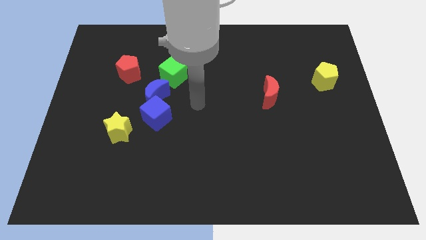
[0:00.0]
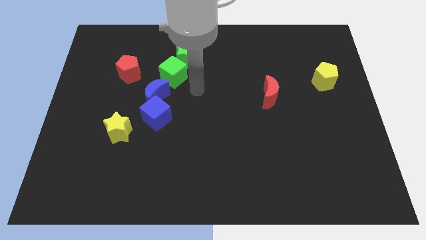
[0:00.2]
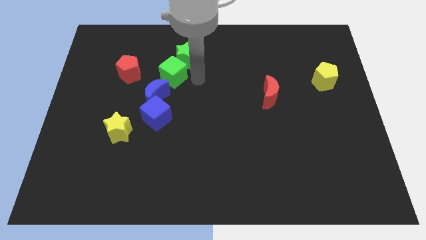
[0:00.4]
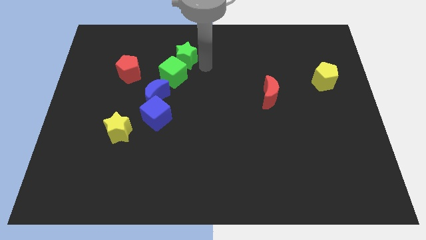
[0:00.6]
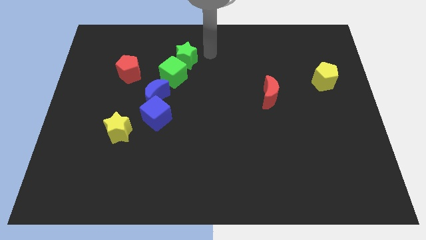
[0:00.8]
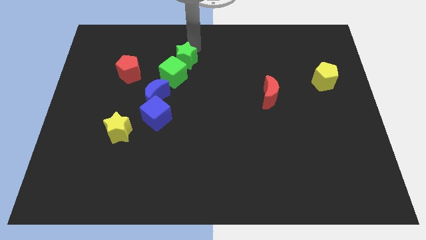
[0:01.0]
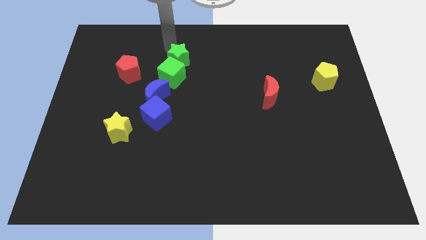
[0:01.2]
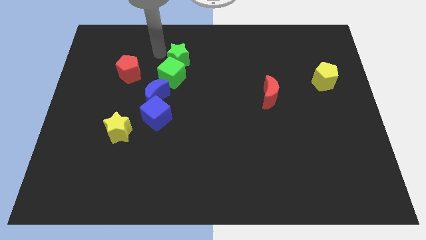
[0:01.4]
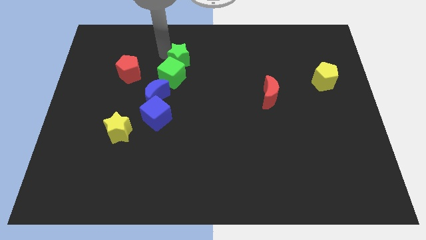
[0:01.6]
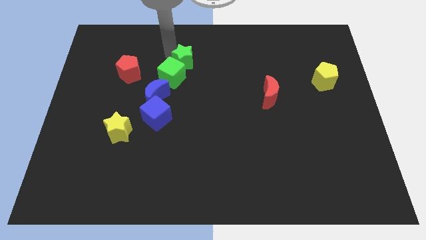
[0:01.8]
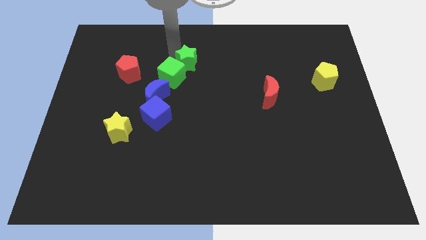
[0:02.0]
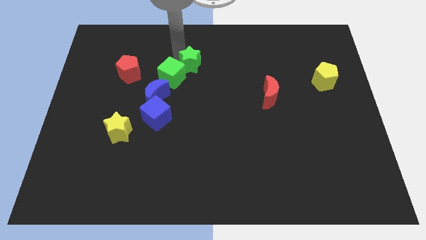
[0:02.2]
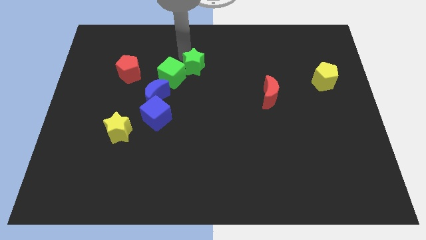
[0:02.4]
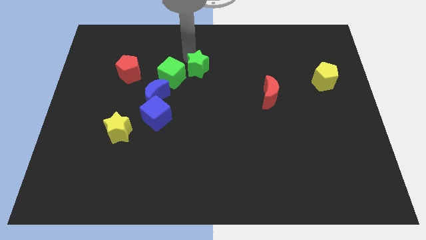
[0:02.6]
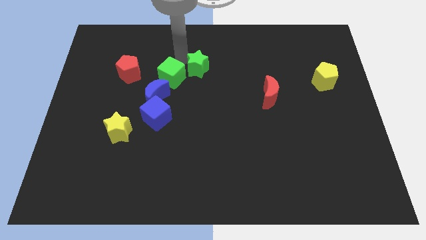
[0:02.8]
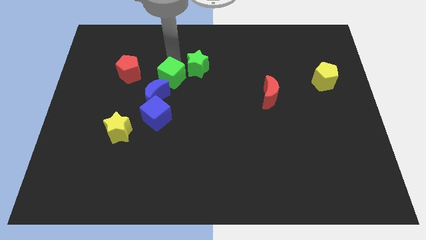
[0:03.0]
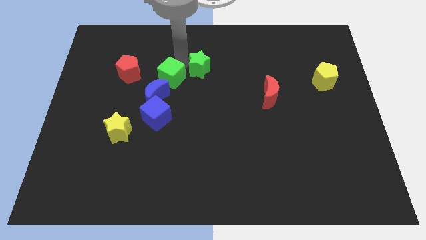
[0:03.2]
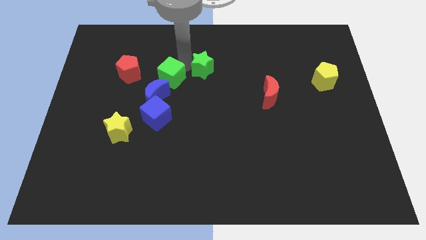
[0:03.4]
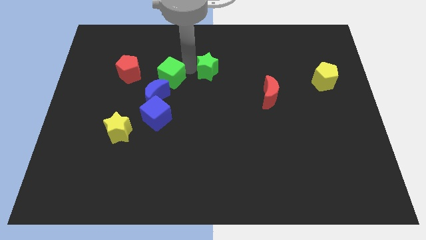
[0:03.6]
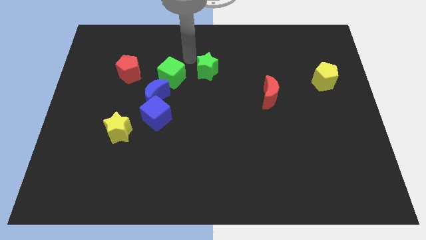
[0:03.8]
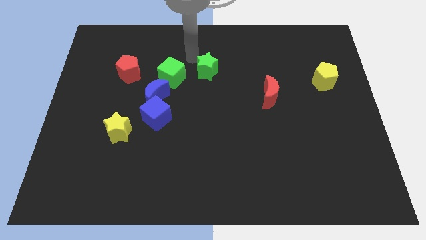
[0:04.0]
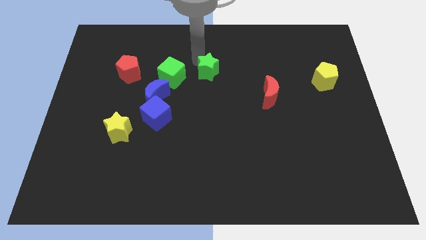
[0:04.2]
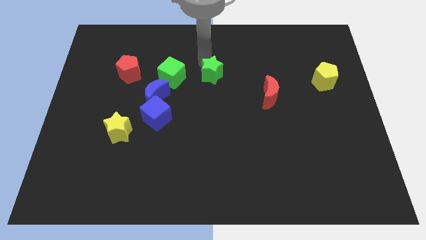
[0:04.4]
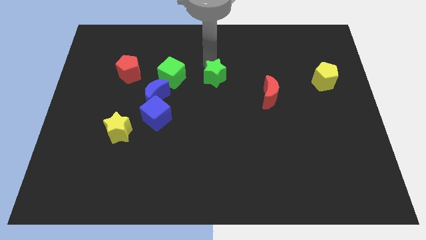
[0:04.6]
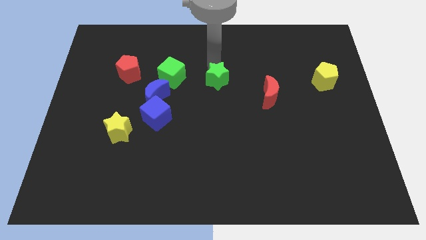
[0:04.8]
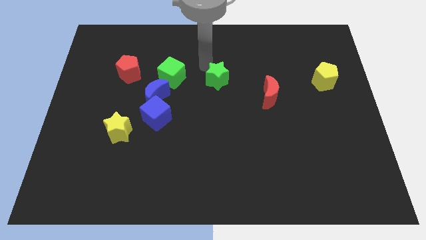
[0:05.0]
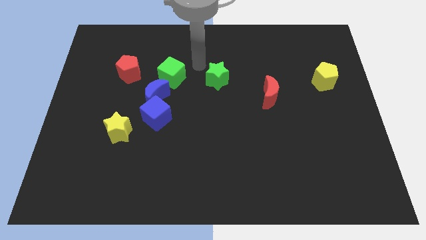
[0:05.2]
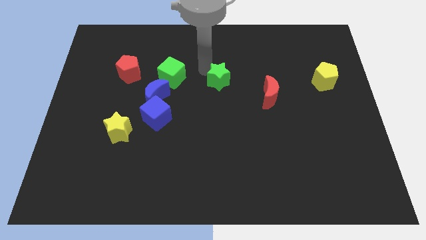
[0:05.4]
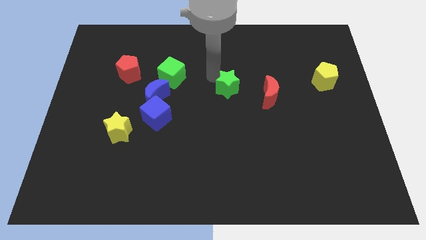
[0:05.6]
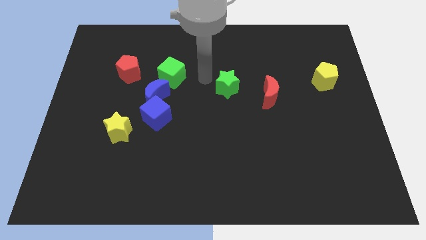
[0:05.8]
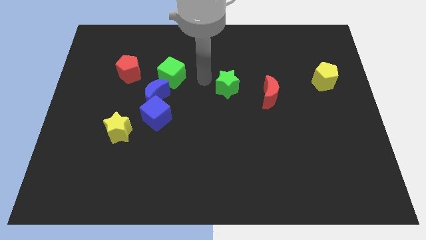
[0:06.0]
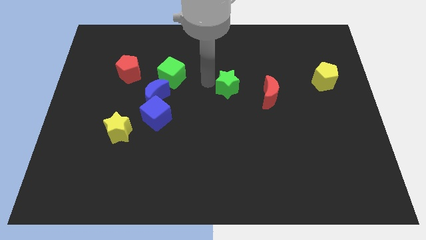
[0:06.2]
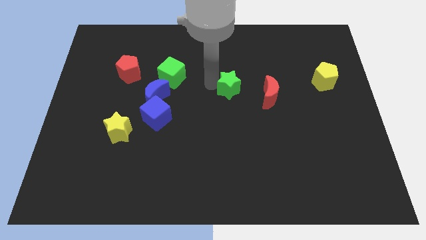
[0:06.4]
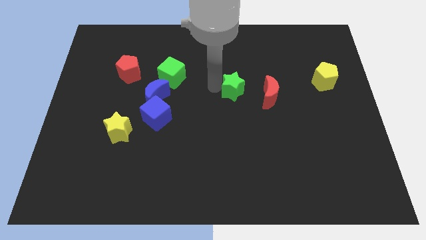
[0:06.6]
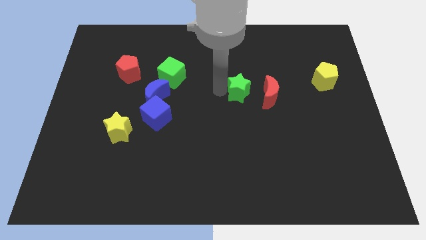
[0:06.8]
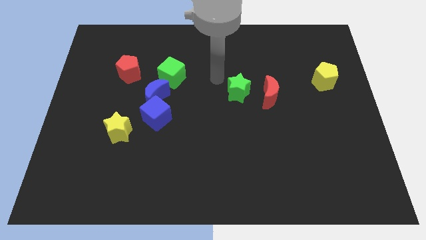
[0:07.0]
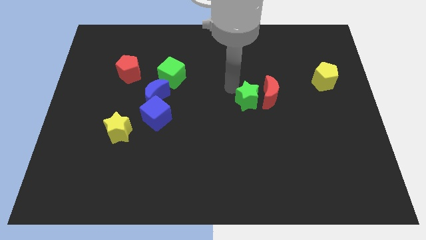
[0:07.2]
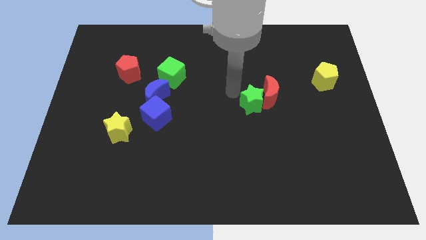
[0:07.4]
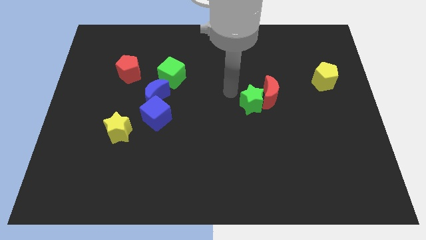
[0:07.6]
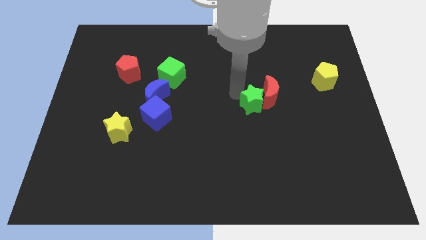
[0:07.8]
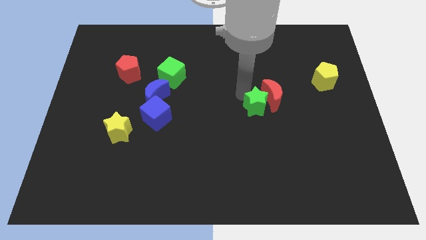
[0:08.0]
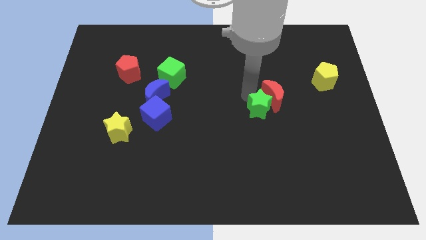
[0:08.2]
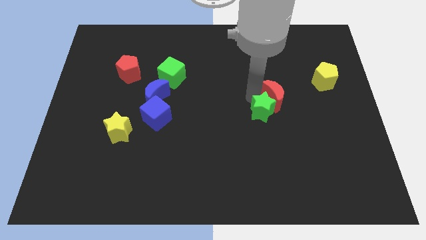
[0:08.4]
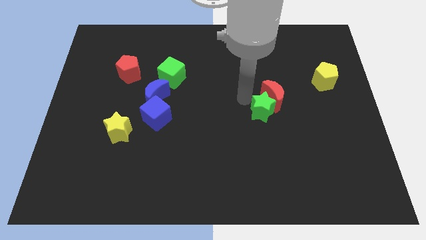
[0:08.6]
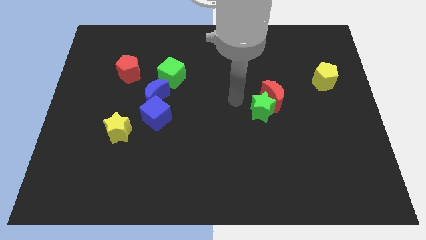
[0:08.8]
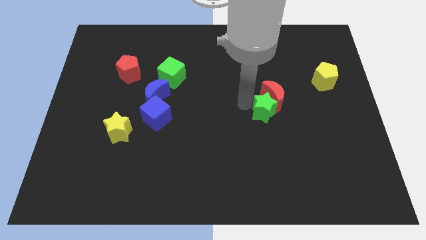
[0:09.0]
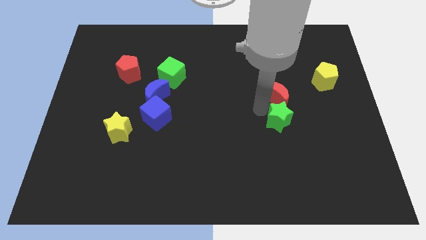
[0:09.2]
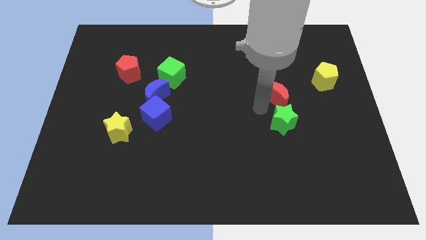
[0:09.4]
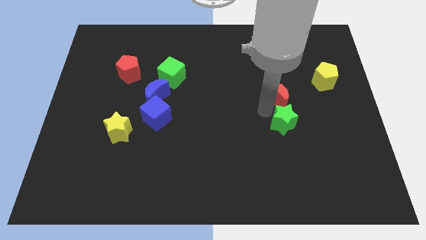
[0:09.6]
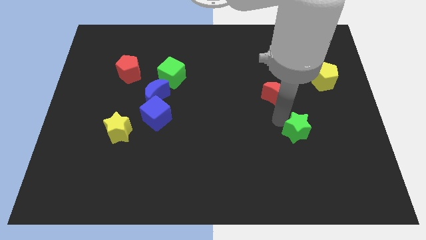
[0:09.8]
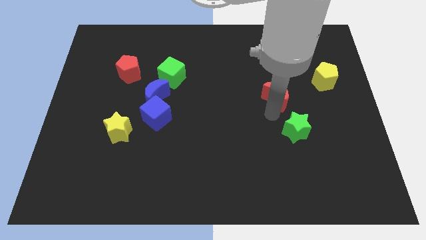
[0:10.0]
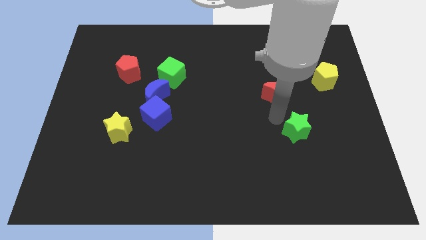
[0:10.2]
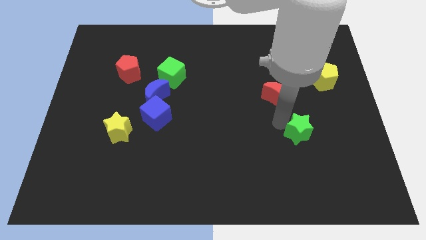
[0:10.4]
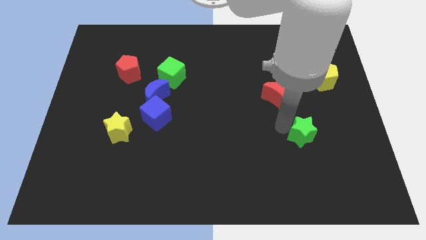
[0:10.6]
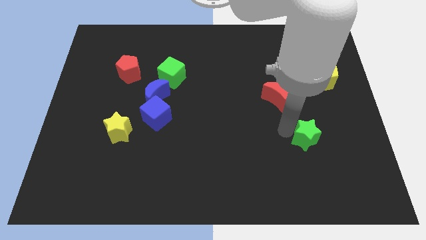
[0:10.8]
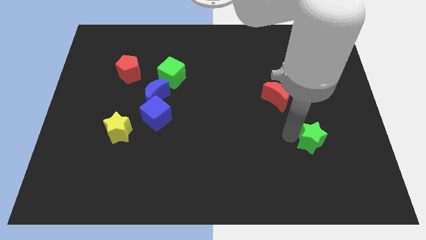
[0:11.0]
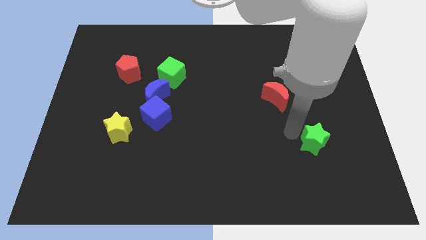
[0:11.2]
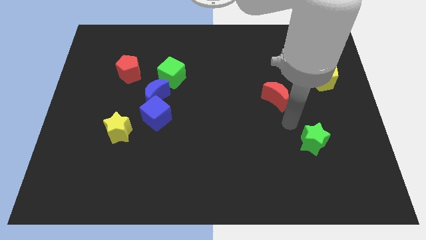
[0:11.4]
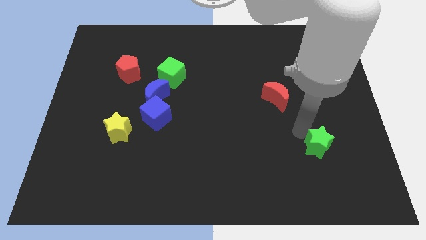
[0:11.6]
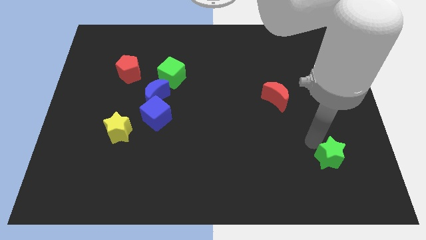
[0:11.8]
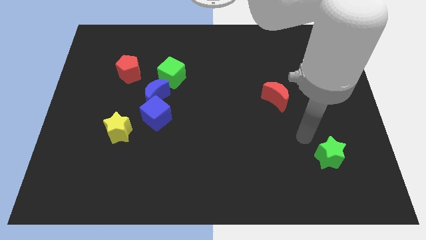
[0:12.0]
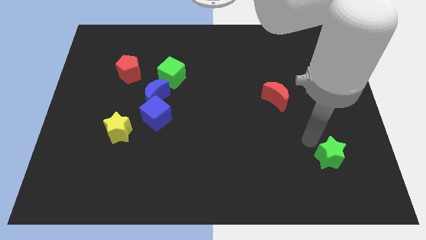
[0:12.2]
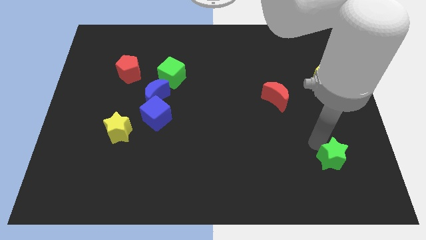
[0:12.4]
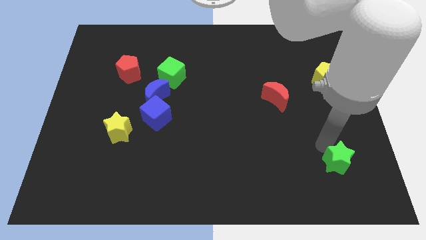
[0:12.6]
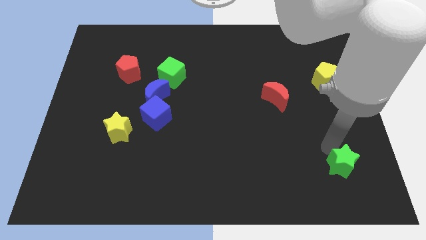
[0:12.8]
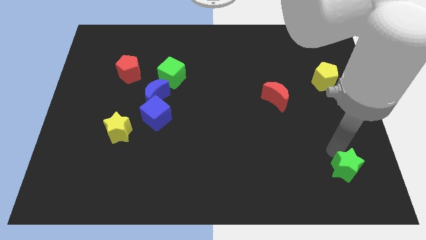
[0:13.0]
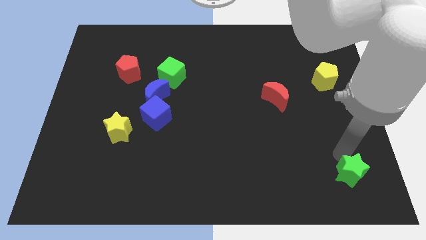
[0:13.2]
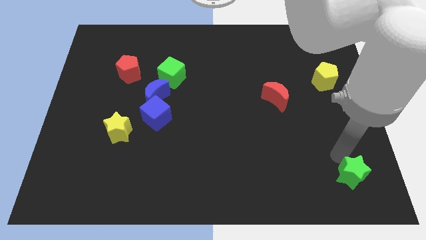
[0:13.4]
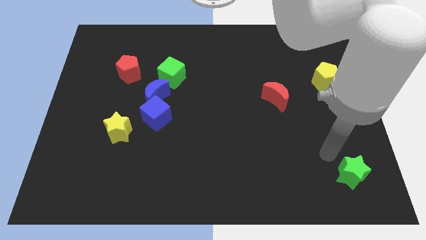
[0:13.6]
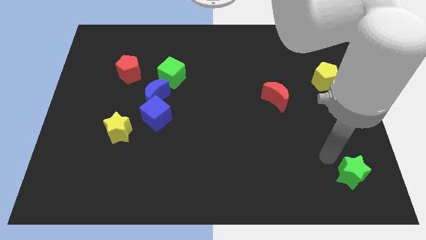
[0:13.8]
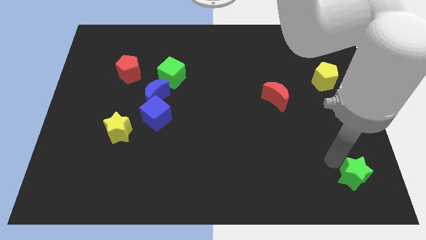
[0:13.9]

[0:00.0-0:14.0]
push the green star to the lower right corner
